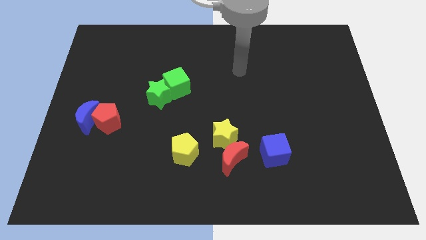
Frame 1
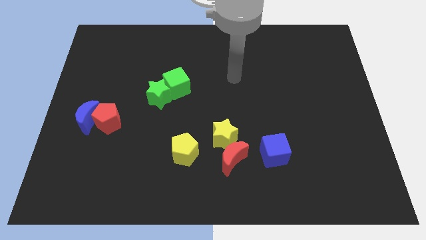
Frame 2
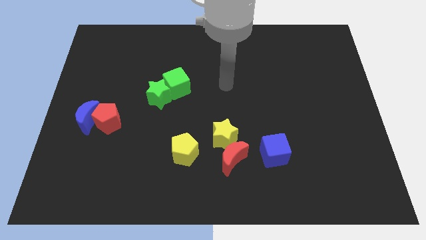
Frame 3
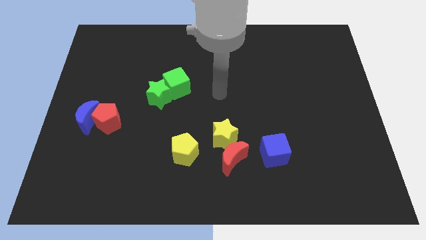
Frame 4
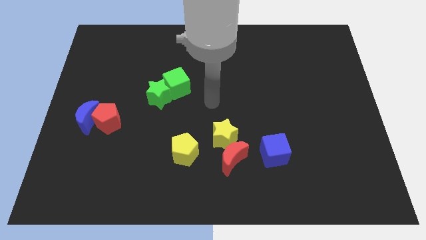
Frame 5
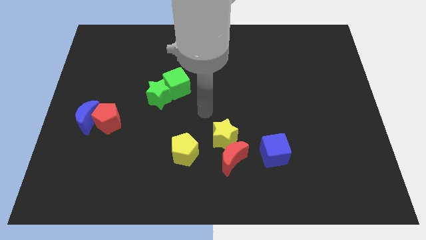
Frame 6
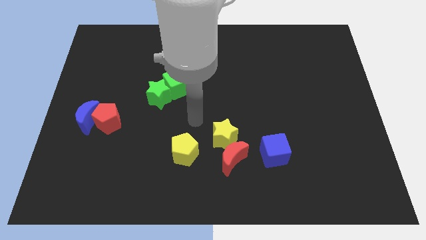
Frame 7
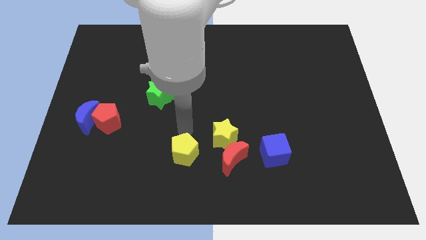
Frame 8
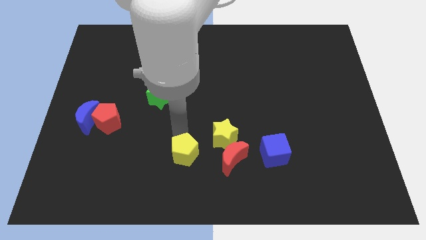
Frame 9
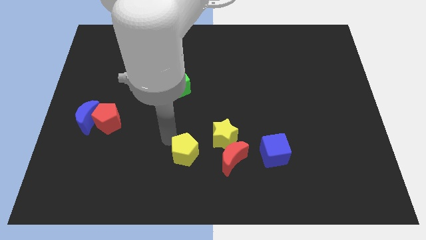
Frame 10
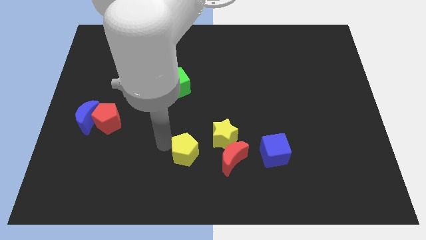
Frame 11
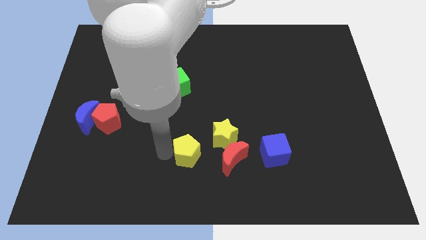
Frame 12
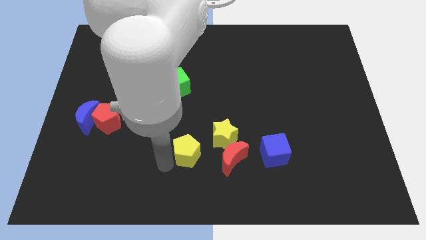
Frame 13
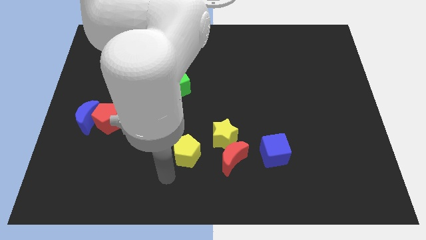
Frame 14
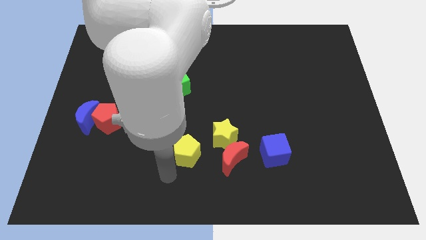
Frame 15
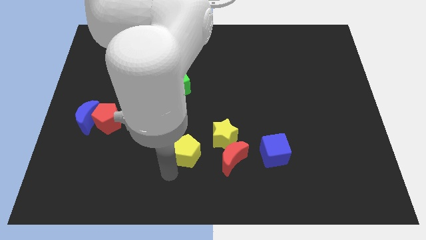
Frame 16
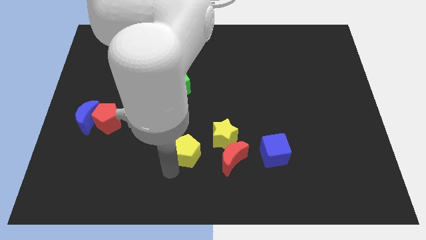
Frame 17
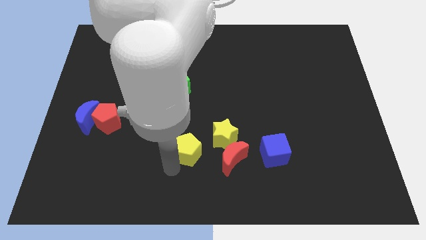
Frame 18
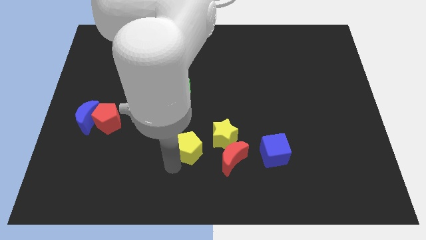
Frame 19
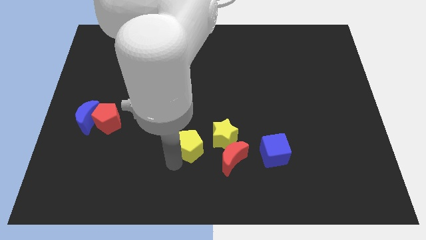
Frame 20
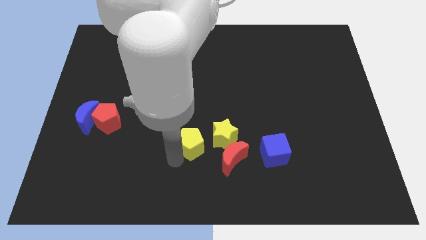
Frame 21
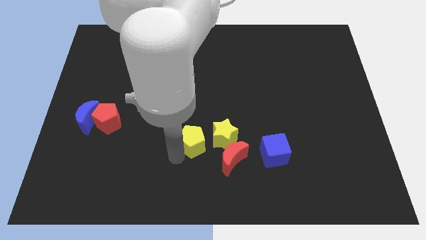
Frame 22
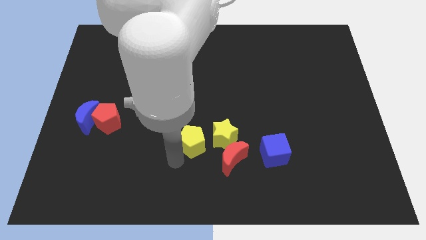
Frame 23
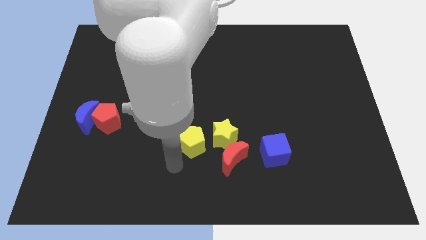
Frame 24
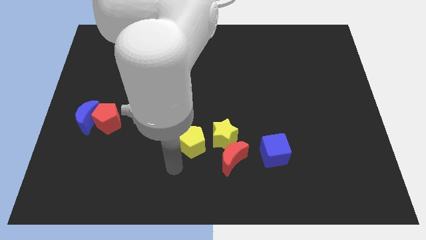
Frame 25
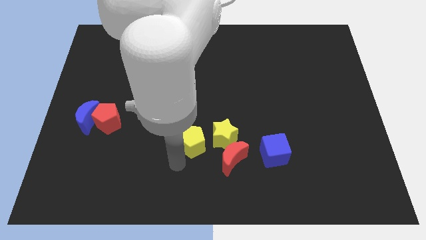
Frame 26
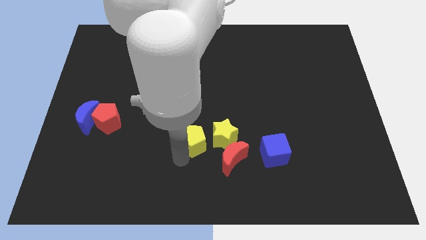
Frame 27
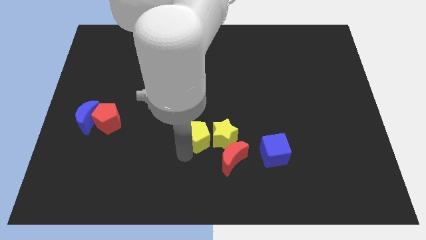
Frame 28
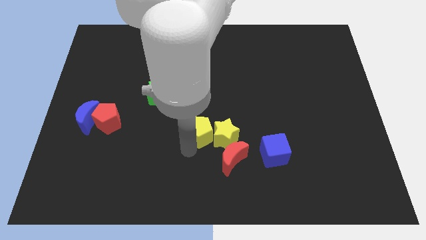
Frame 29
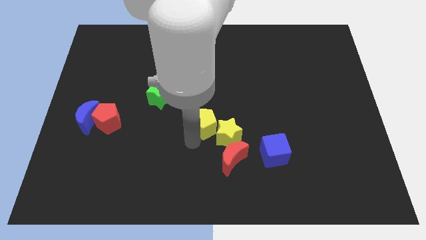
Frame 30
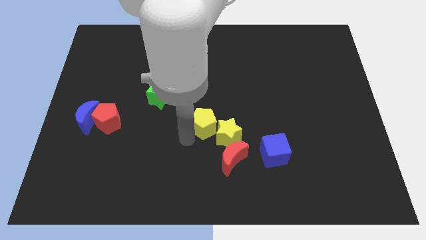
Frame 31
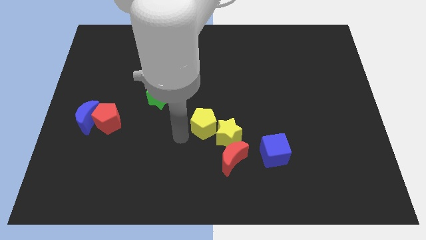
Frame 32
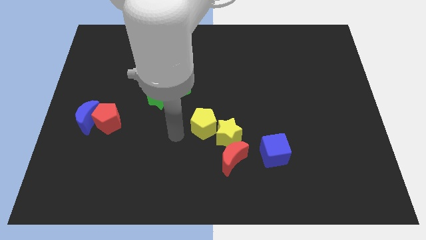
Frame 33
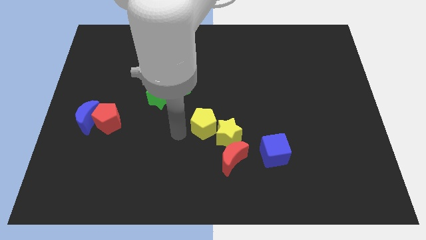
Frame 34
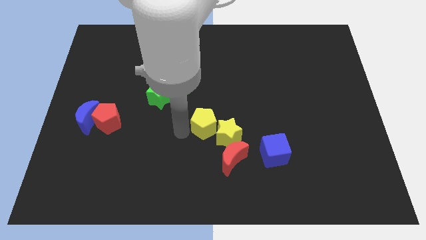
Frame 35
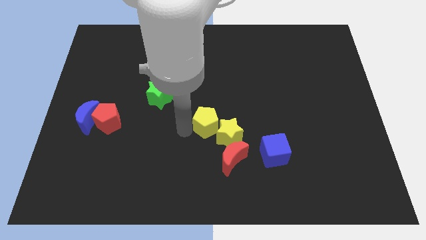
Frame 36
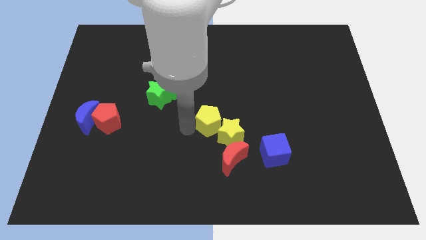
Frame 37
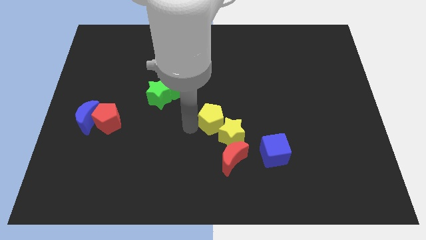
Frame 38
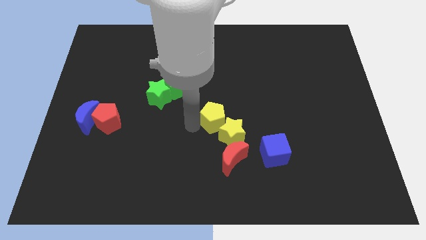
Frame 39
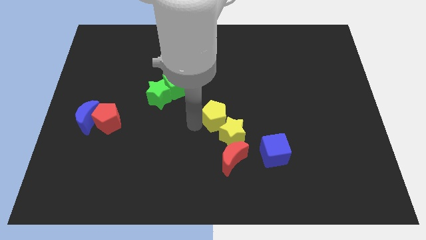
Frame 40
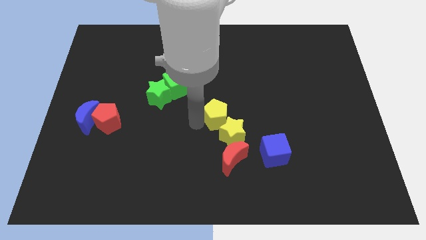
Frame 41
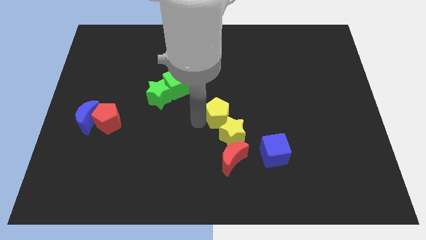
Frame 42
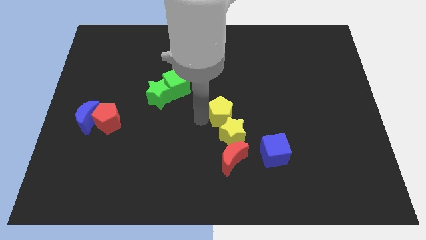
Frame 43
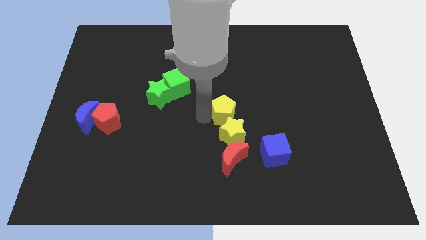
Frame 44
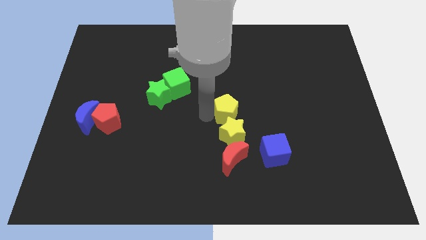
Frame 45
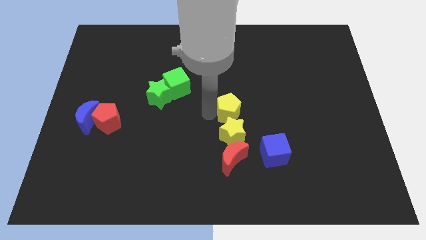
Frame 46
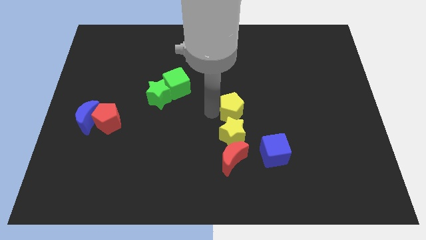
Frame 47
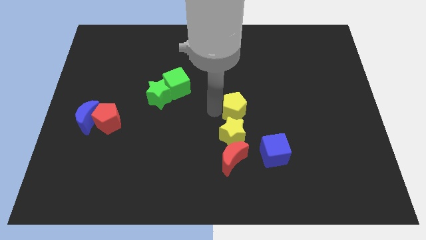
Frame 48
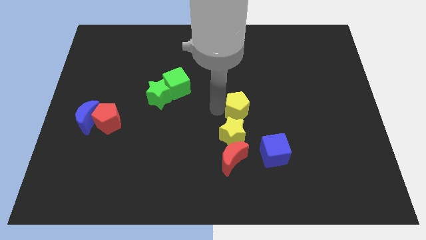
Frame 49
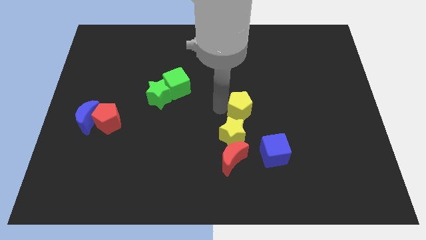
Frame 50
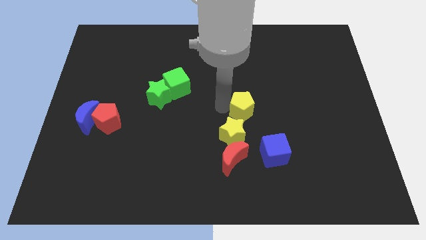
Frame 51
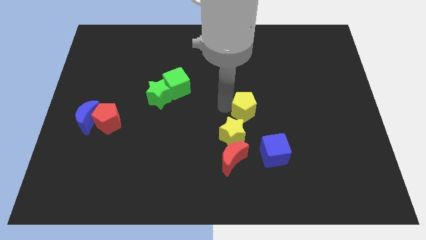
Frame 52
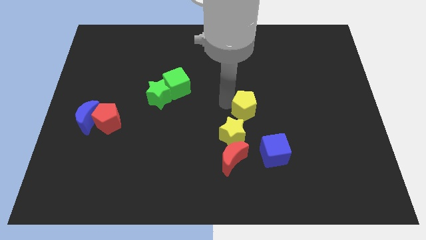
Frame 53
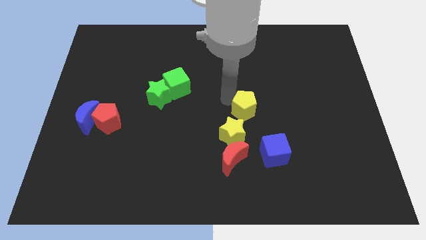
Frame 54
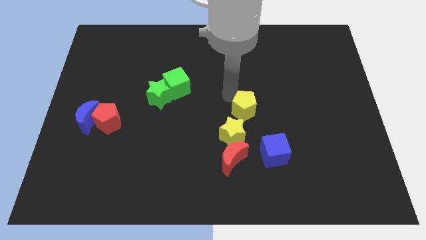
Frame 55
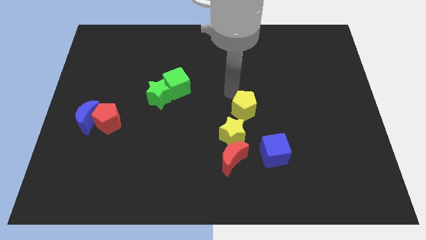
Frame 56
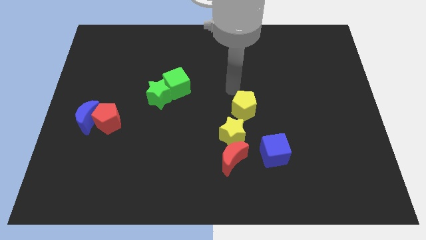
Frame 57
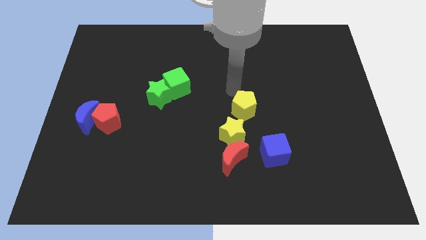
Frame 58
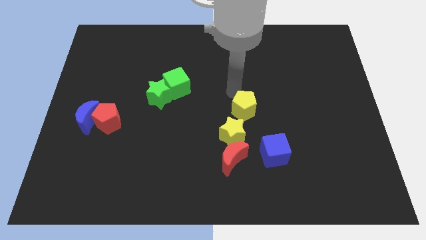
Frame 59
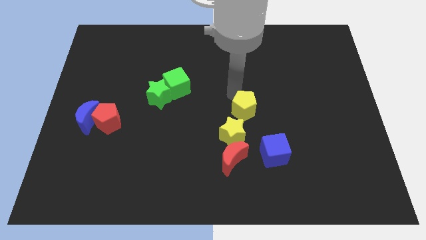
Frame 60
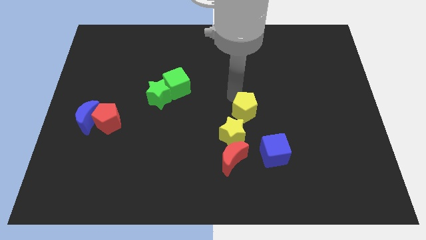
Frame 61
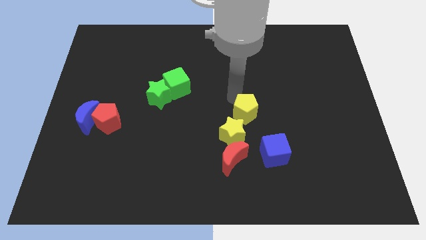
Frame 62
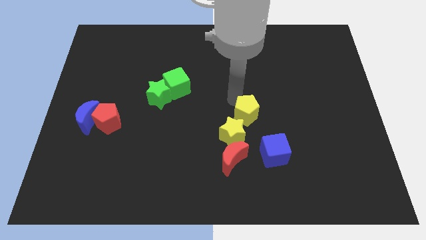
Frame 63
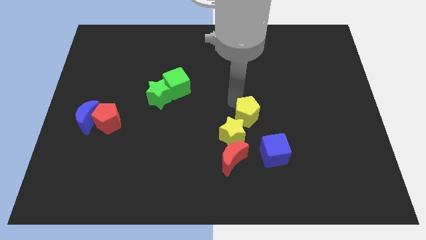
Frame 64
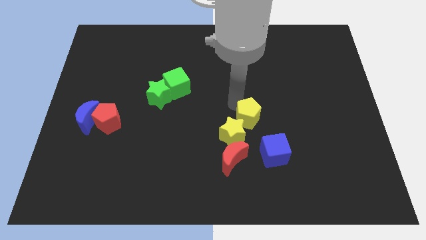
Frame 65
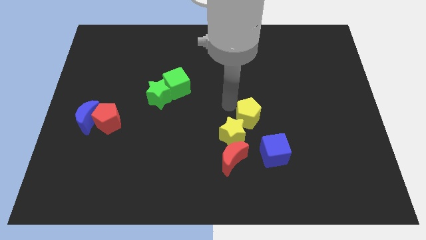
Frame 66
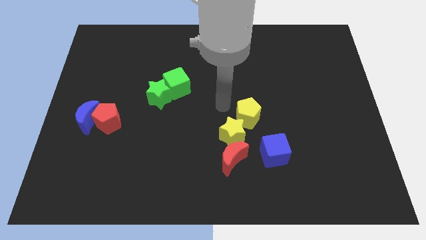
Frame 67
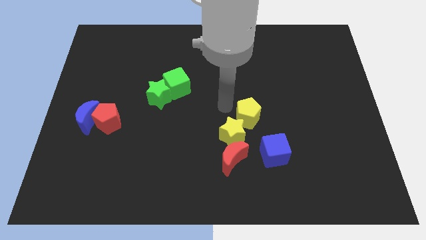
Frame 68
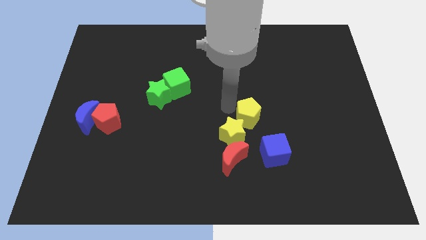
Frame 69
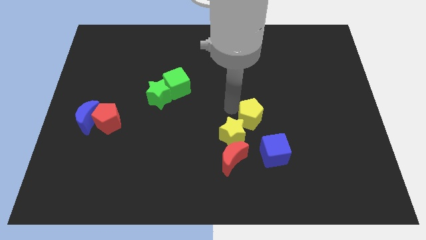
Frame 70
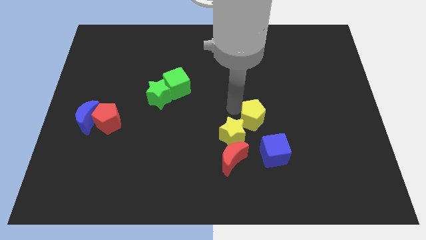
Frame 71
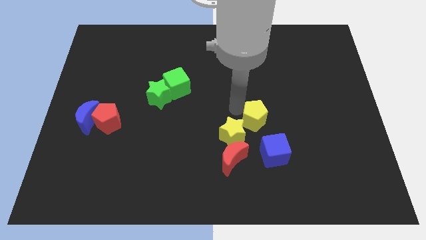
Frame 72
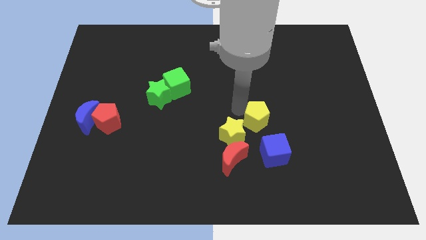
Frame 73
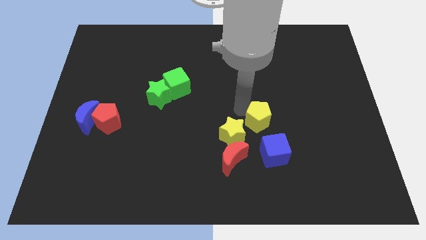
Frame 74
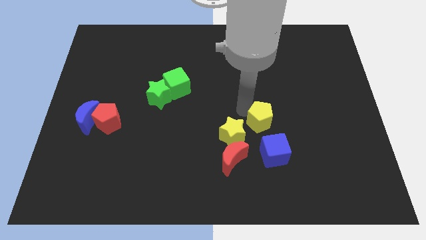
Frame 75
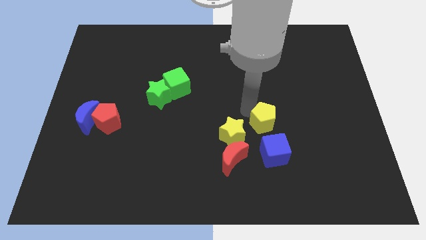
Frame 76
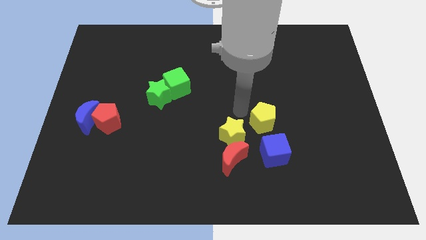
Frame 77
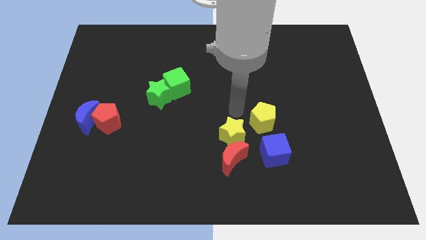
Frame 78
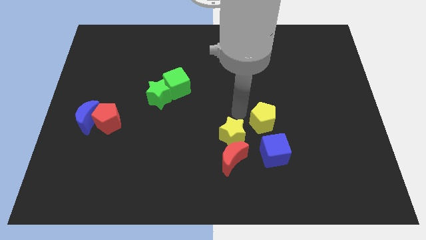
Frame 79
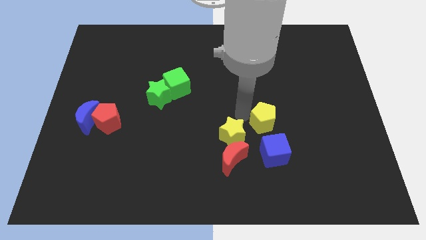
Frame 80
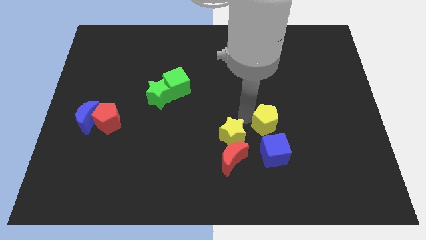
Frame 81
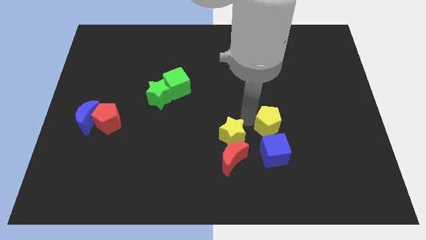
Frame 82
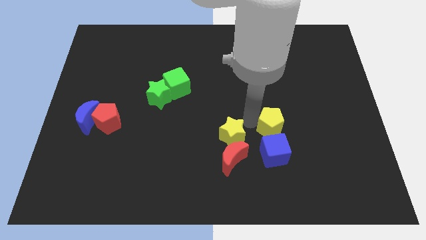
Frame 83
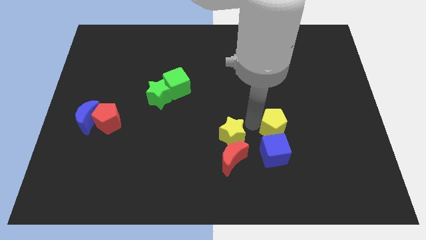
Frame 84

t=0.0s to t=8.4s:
move the yellow pentagon diagonally up and to the right of the blue cube
